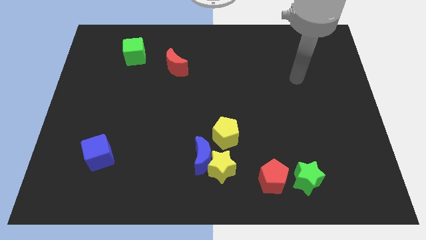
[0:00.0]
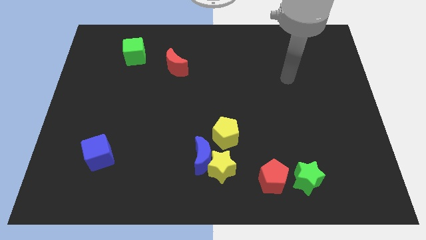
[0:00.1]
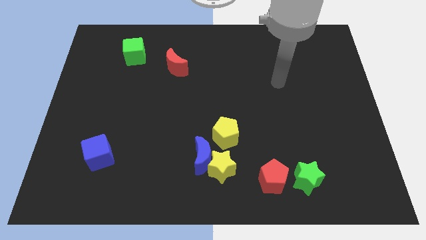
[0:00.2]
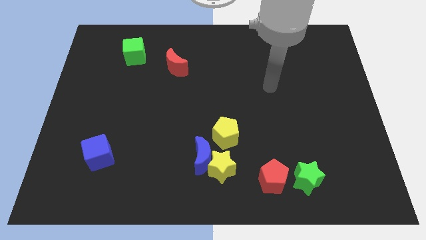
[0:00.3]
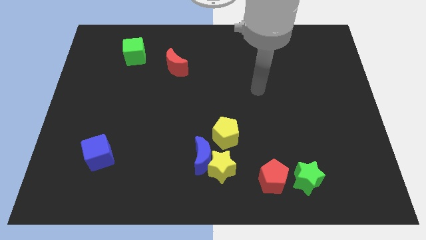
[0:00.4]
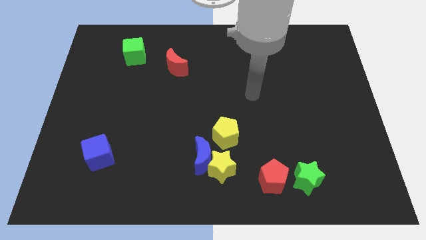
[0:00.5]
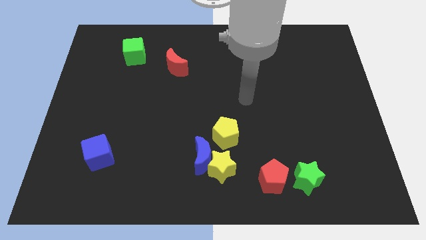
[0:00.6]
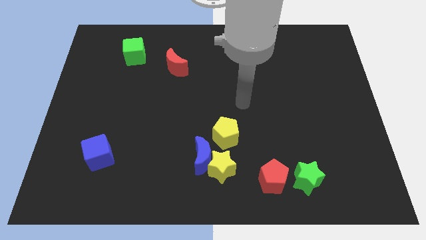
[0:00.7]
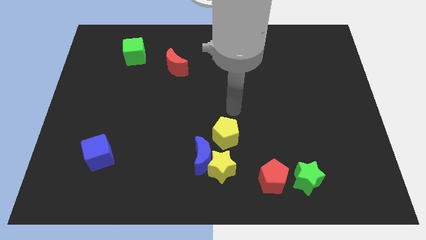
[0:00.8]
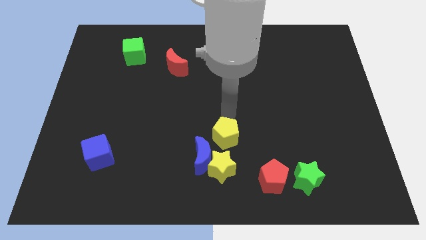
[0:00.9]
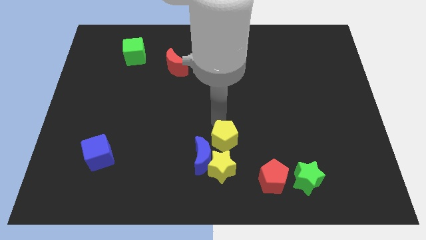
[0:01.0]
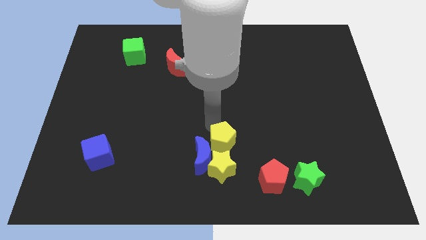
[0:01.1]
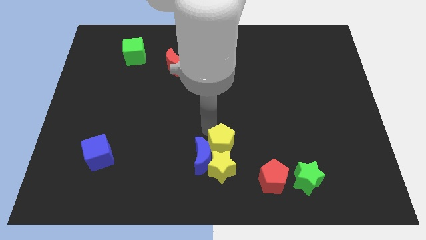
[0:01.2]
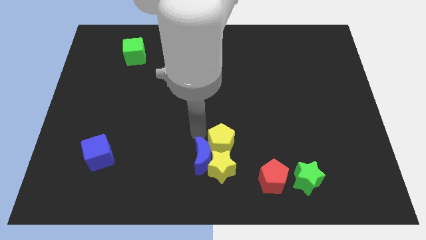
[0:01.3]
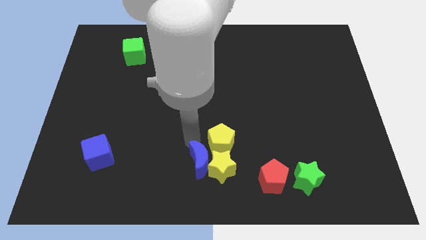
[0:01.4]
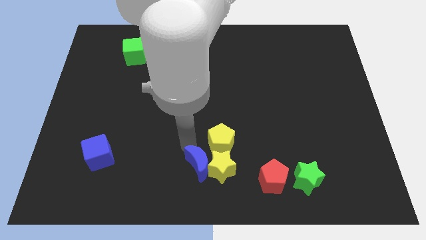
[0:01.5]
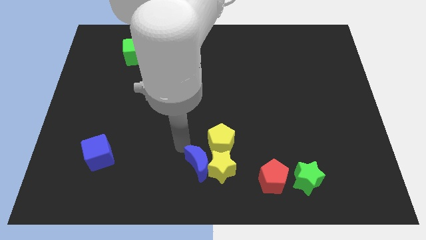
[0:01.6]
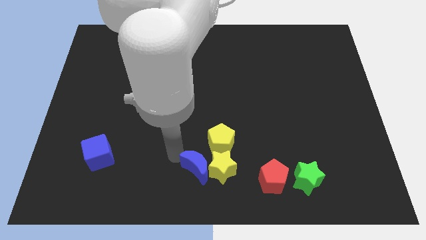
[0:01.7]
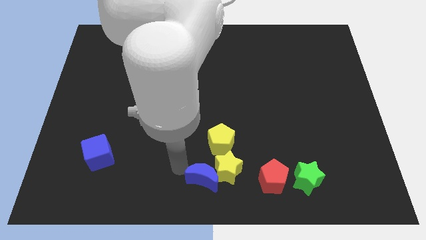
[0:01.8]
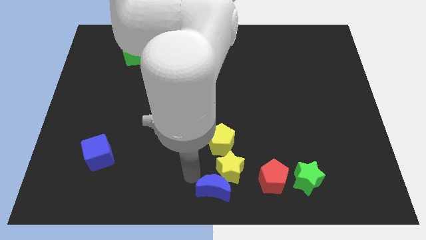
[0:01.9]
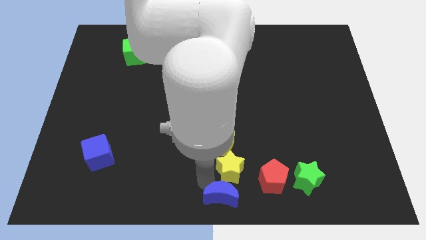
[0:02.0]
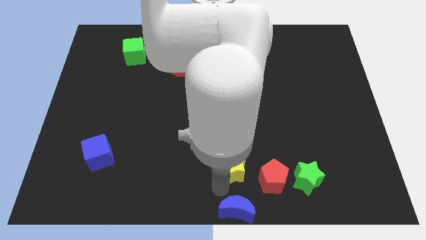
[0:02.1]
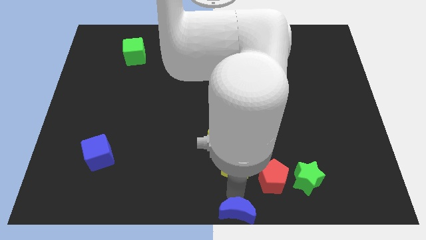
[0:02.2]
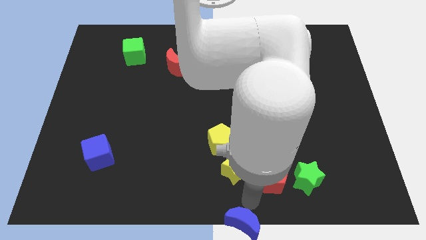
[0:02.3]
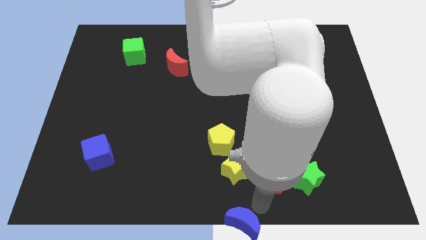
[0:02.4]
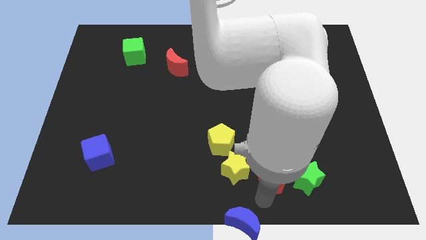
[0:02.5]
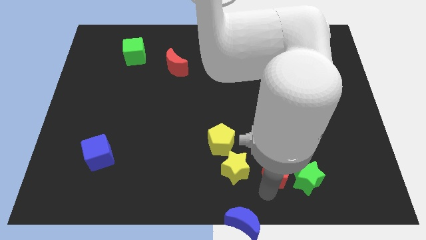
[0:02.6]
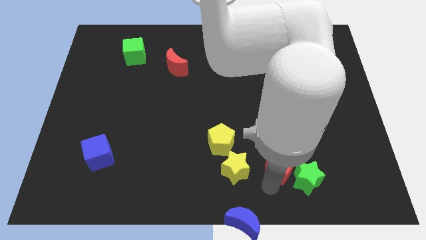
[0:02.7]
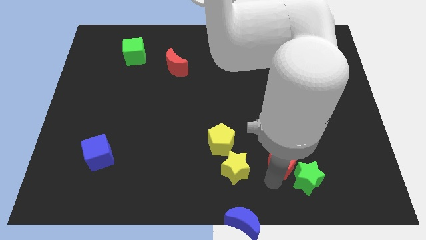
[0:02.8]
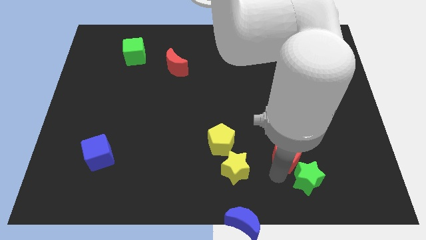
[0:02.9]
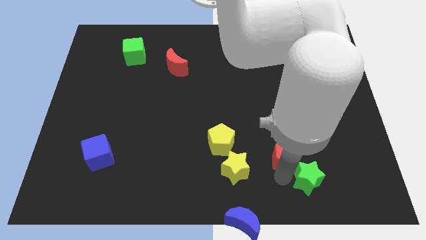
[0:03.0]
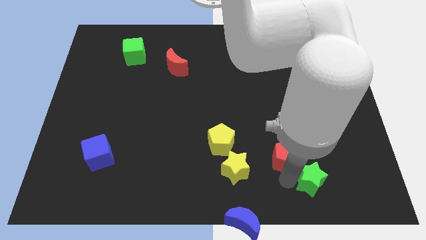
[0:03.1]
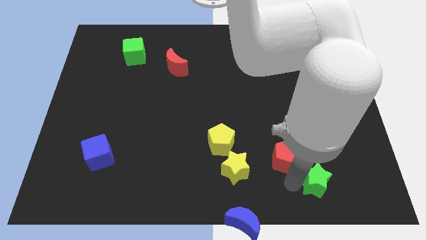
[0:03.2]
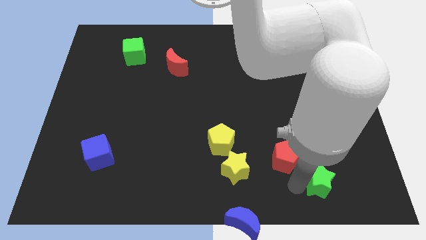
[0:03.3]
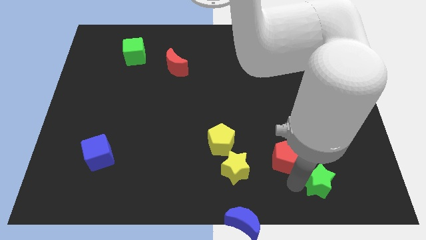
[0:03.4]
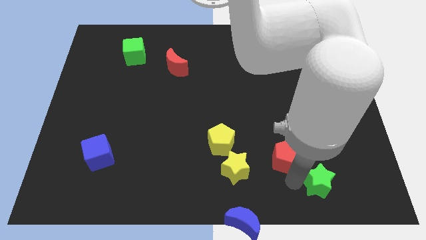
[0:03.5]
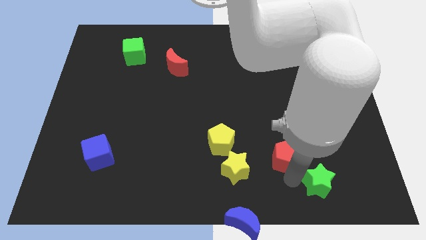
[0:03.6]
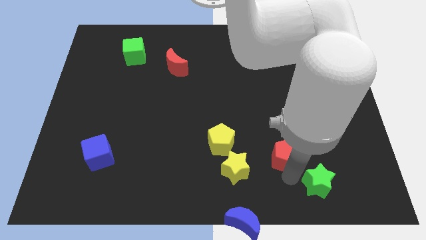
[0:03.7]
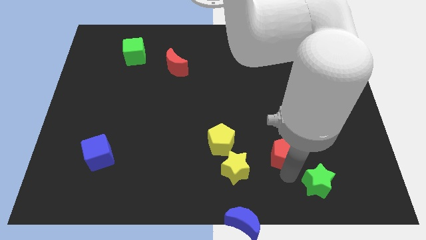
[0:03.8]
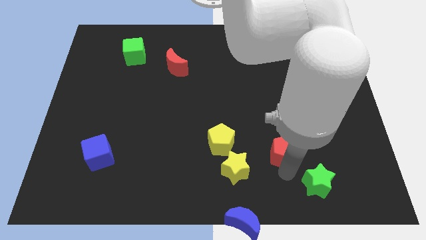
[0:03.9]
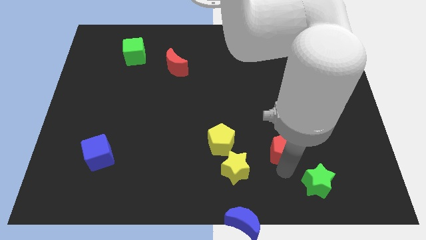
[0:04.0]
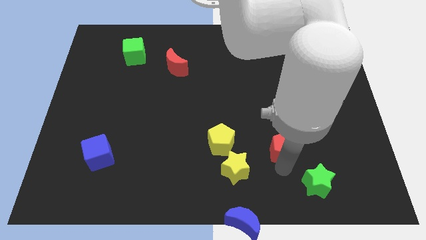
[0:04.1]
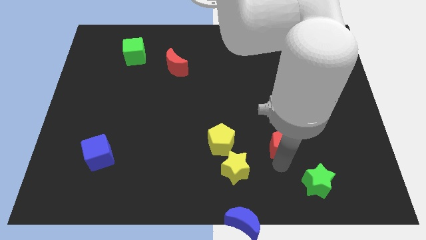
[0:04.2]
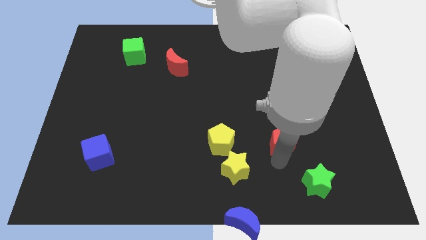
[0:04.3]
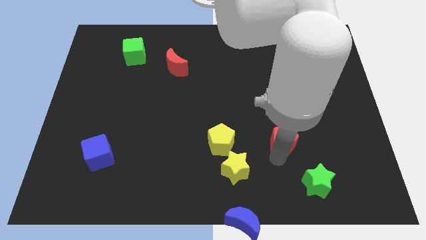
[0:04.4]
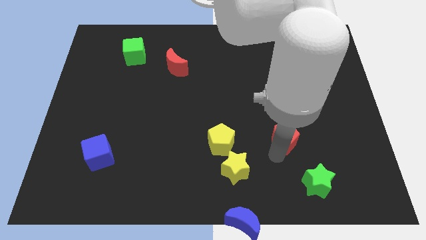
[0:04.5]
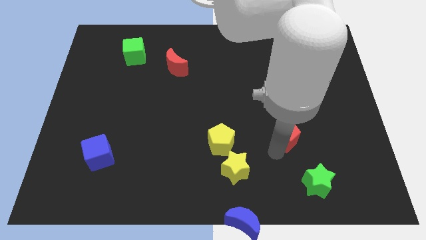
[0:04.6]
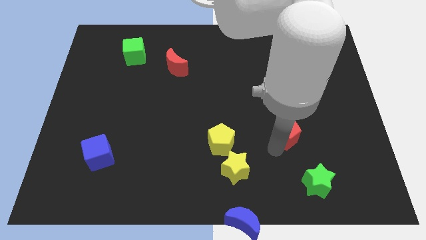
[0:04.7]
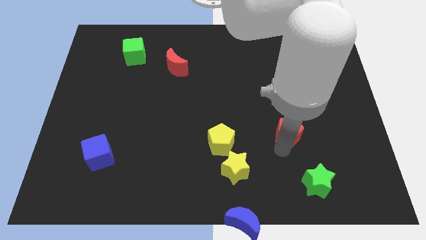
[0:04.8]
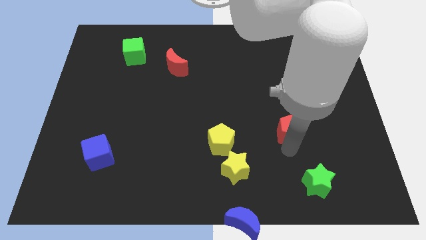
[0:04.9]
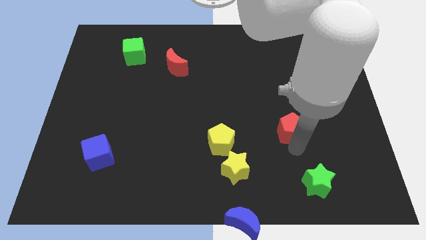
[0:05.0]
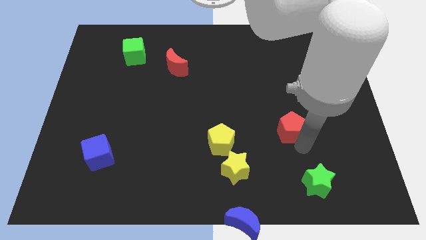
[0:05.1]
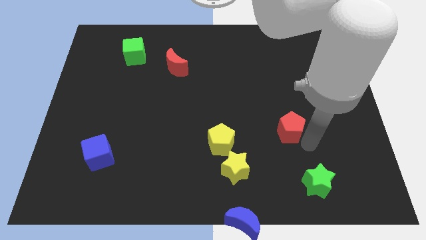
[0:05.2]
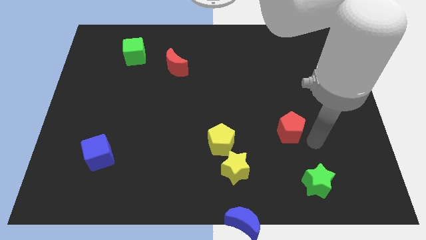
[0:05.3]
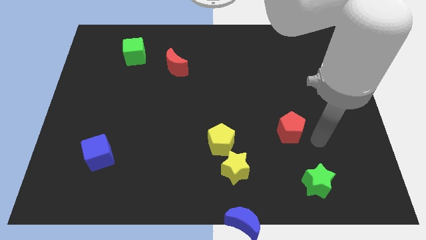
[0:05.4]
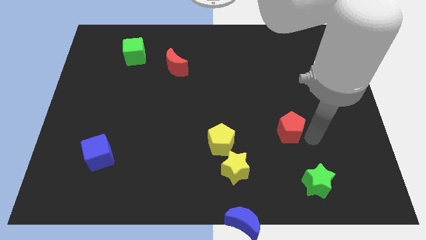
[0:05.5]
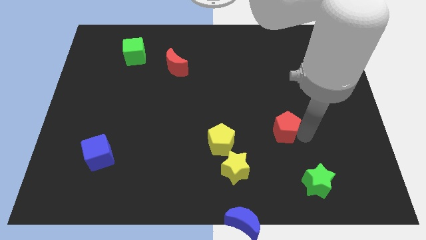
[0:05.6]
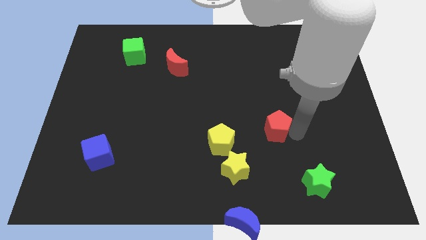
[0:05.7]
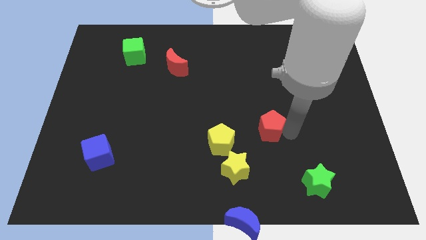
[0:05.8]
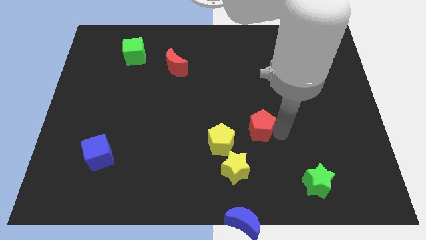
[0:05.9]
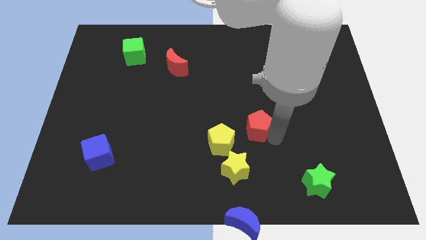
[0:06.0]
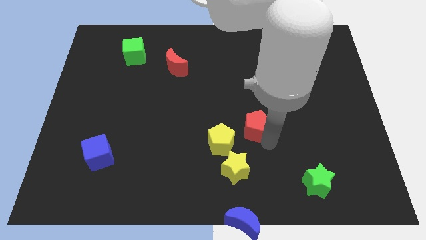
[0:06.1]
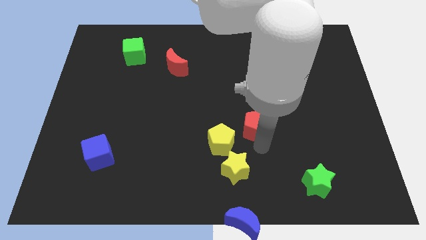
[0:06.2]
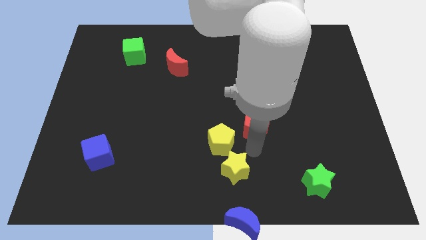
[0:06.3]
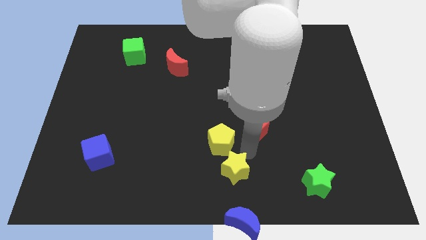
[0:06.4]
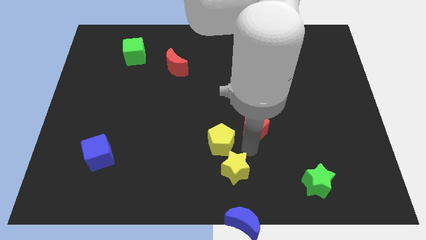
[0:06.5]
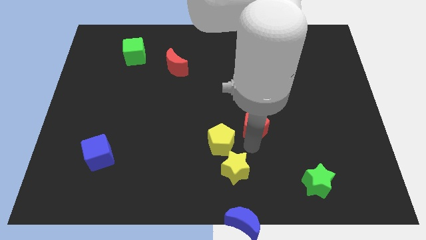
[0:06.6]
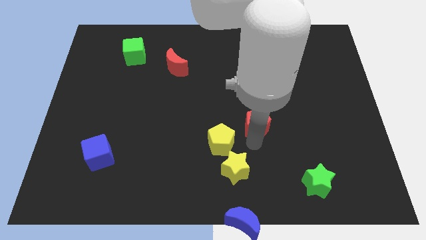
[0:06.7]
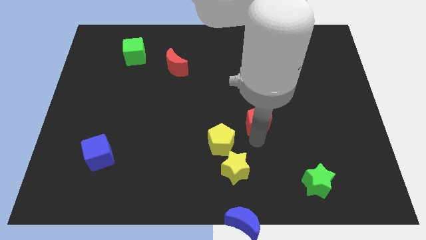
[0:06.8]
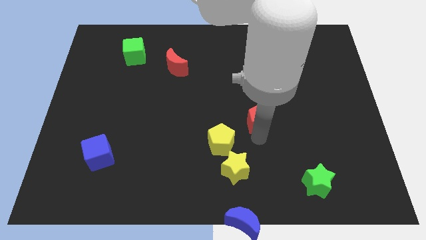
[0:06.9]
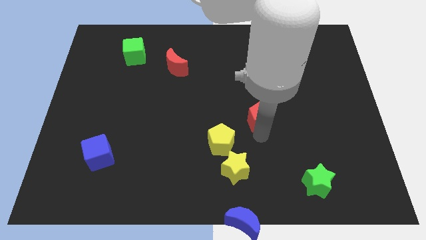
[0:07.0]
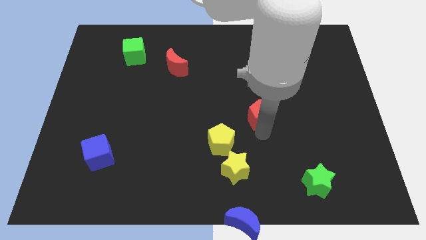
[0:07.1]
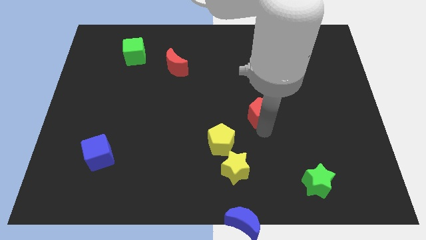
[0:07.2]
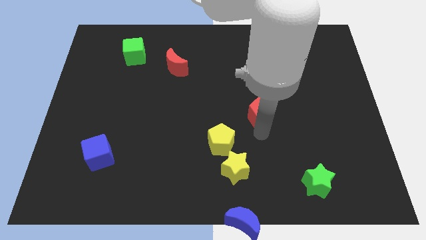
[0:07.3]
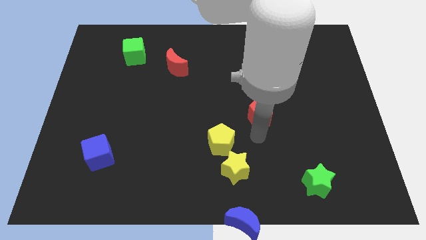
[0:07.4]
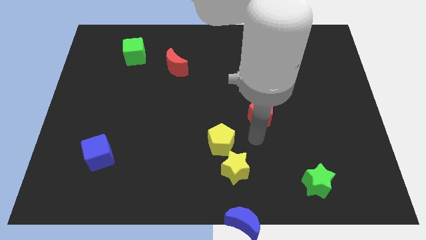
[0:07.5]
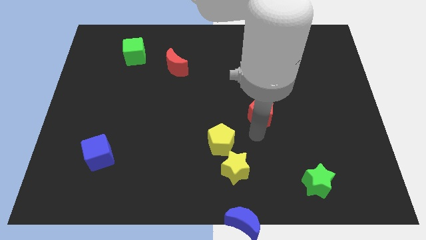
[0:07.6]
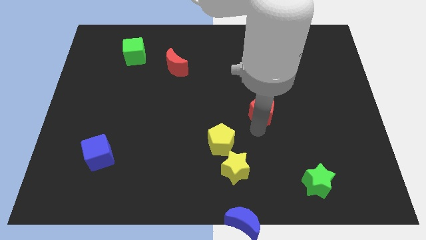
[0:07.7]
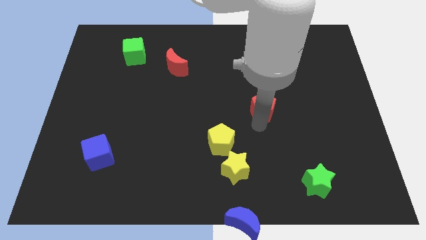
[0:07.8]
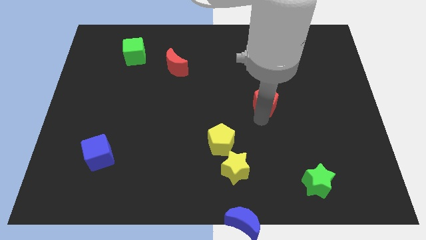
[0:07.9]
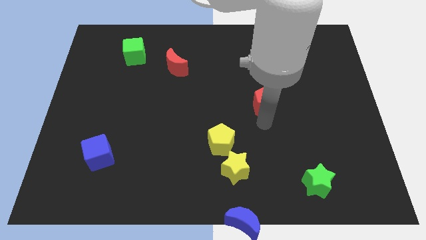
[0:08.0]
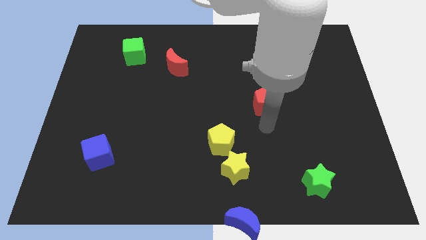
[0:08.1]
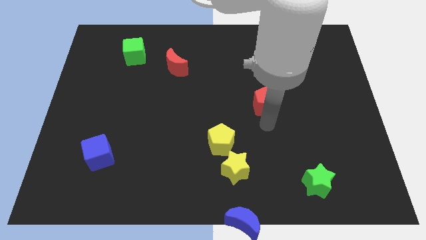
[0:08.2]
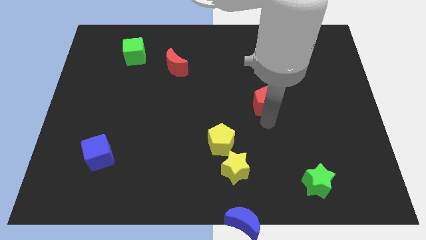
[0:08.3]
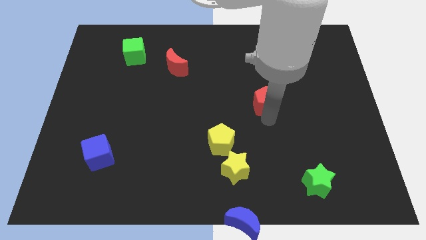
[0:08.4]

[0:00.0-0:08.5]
slide the red pentagon upwards
